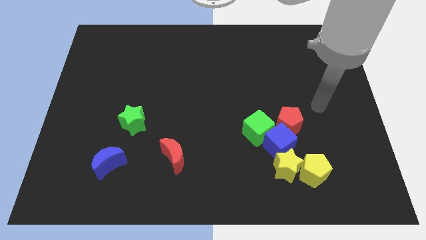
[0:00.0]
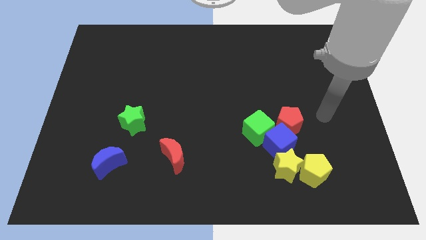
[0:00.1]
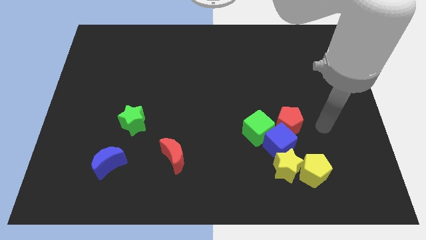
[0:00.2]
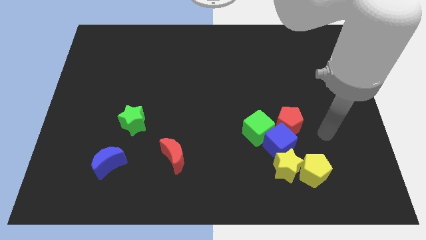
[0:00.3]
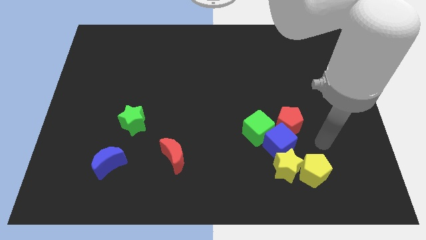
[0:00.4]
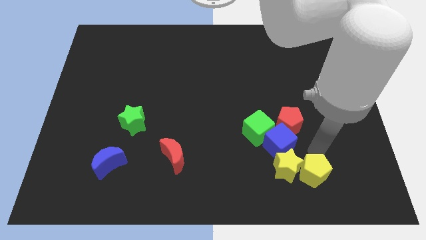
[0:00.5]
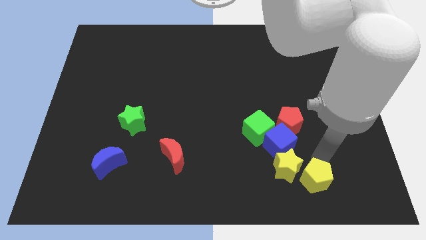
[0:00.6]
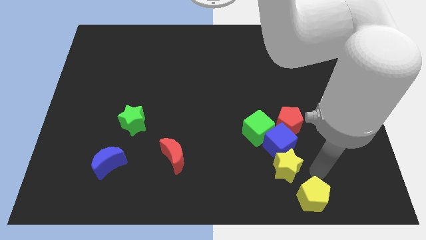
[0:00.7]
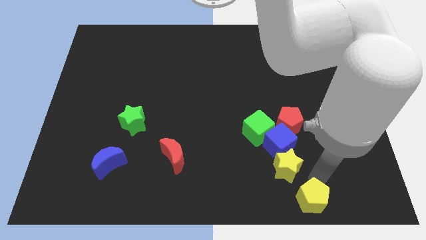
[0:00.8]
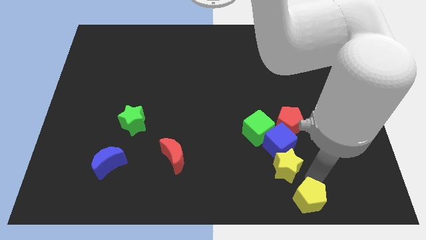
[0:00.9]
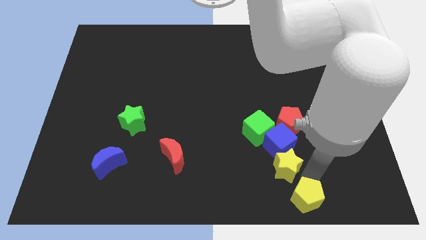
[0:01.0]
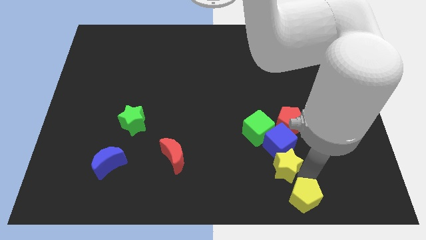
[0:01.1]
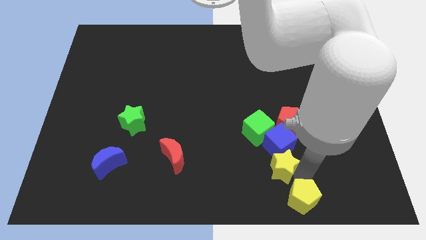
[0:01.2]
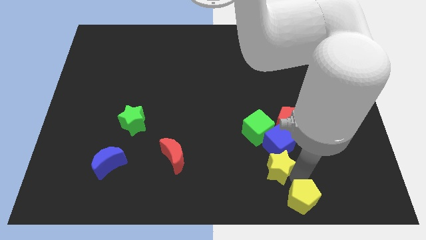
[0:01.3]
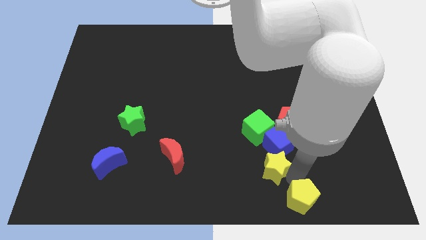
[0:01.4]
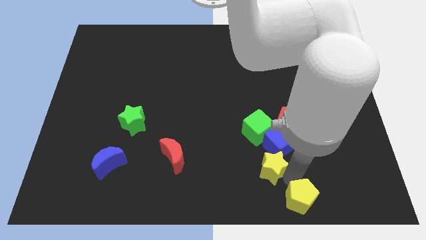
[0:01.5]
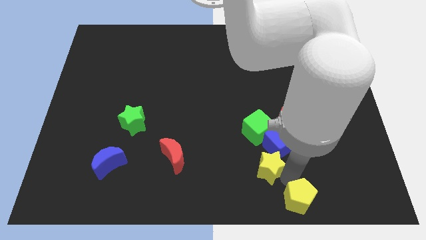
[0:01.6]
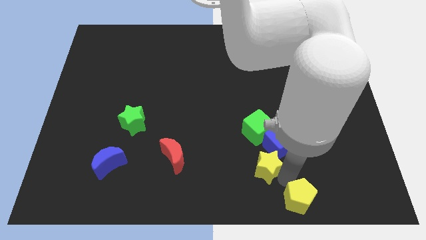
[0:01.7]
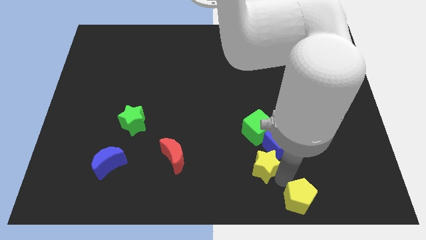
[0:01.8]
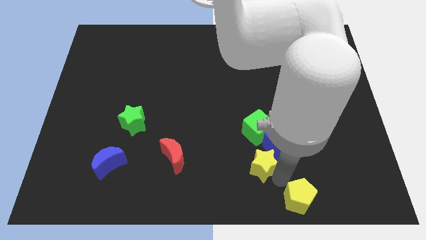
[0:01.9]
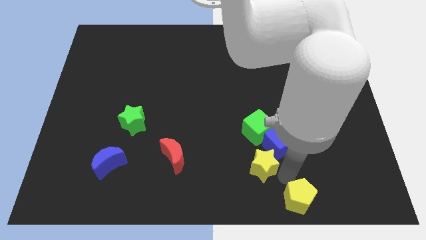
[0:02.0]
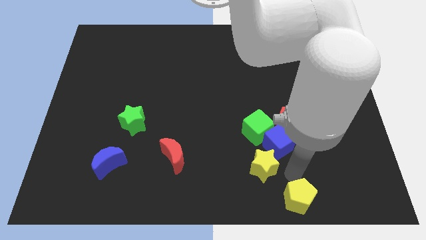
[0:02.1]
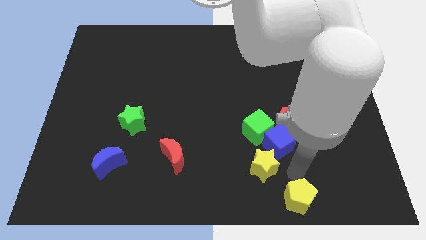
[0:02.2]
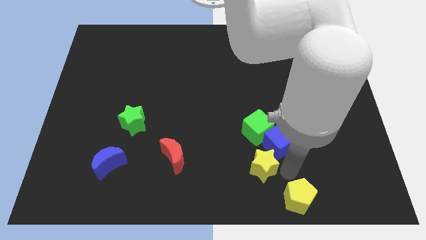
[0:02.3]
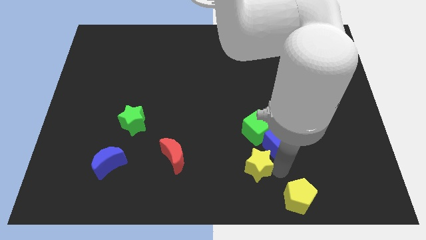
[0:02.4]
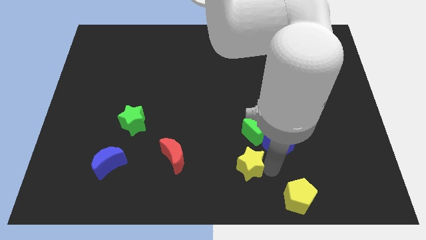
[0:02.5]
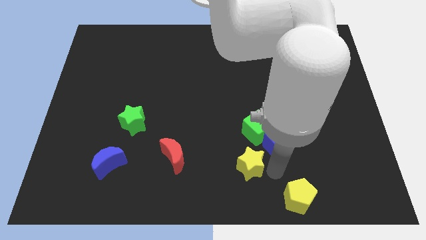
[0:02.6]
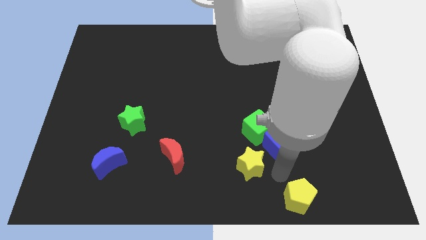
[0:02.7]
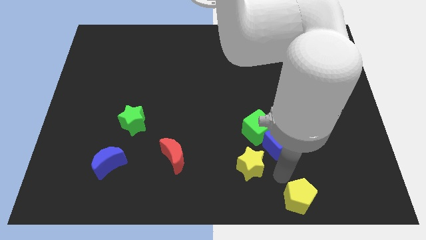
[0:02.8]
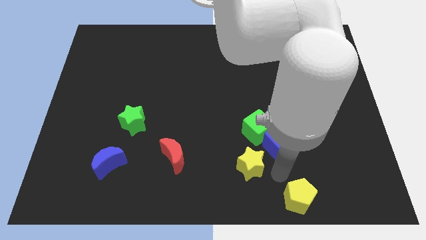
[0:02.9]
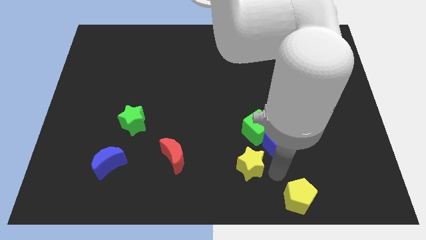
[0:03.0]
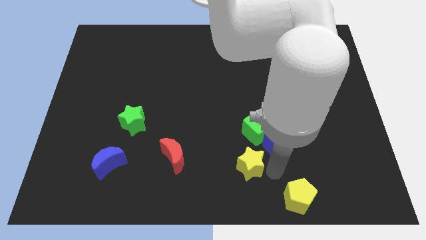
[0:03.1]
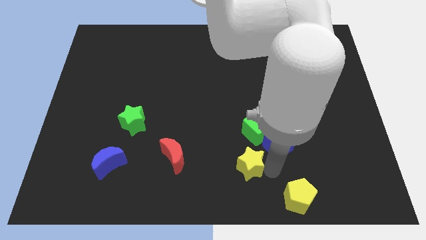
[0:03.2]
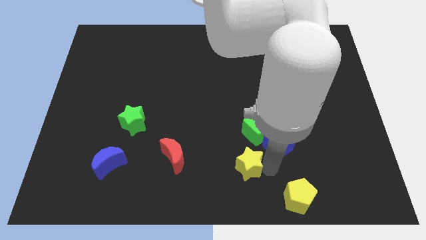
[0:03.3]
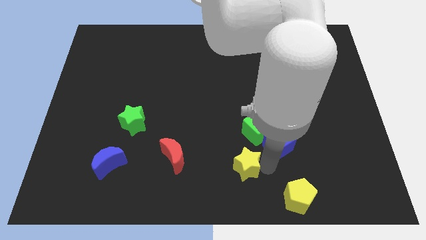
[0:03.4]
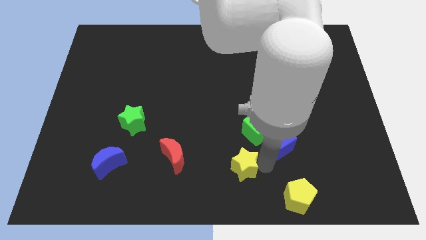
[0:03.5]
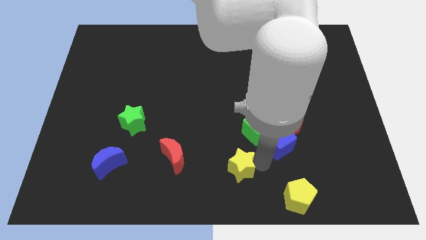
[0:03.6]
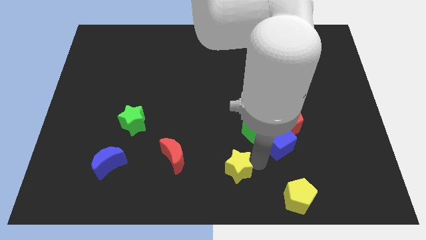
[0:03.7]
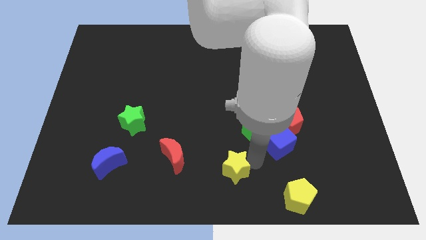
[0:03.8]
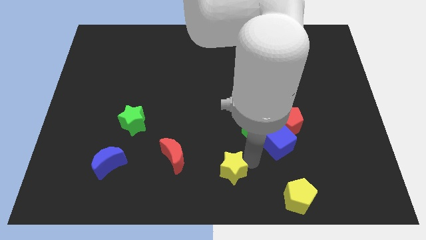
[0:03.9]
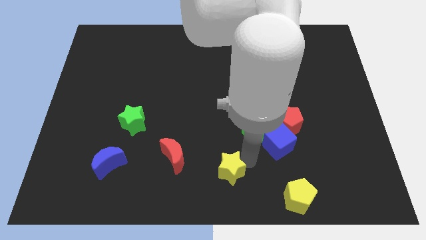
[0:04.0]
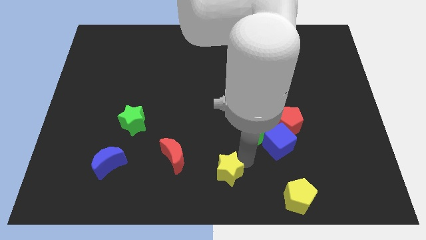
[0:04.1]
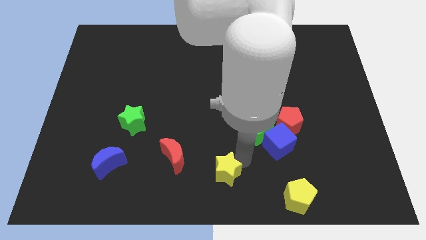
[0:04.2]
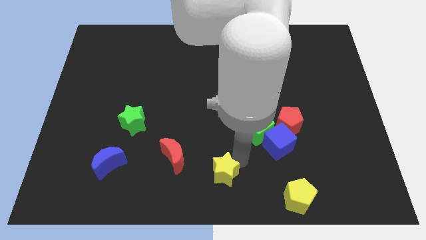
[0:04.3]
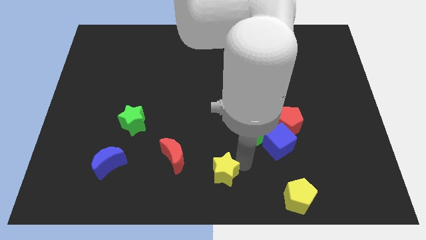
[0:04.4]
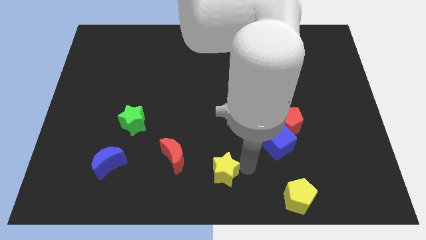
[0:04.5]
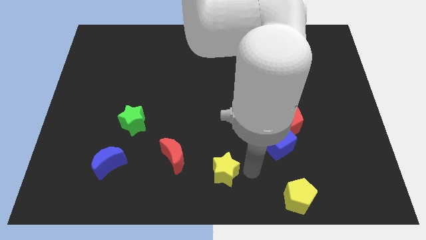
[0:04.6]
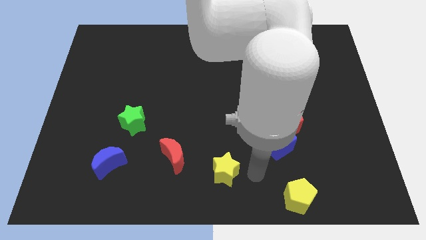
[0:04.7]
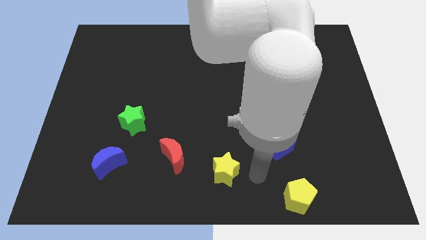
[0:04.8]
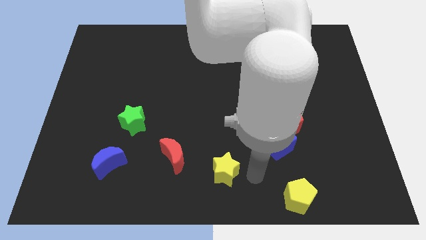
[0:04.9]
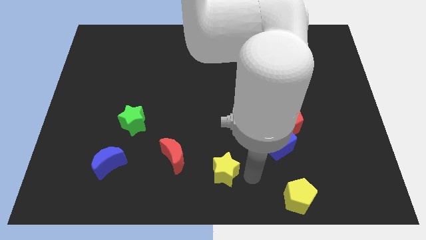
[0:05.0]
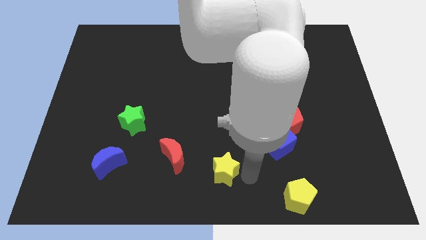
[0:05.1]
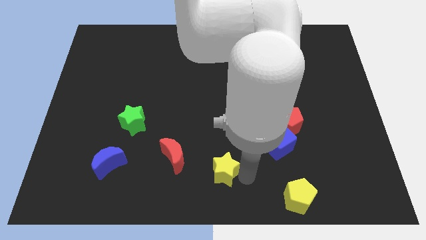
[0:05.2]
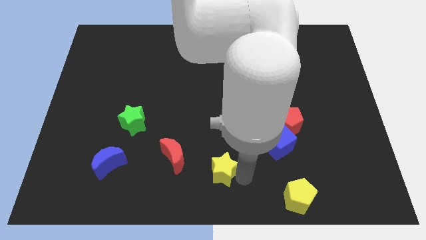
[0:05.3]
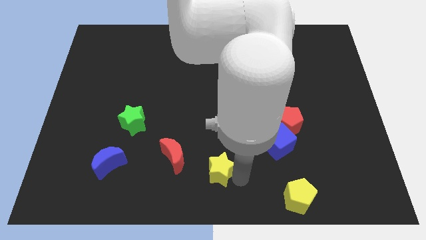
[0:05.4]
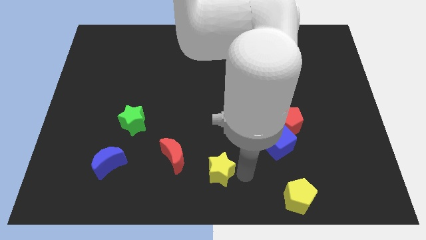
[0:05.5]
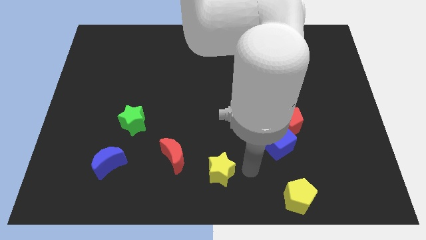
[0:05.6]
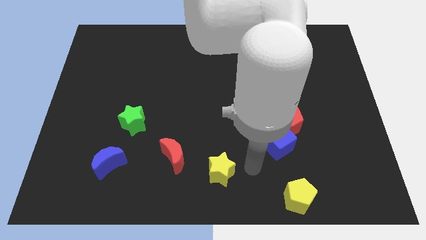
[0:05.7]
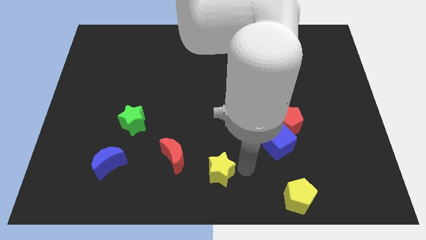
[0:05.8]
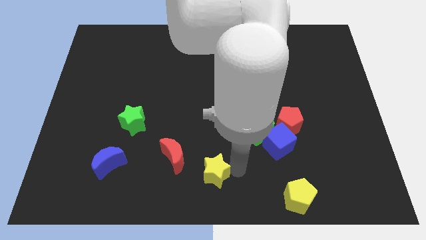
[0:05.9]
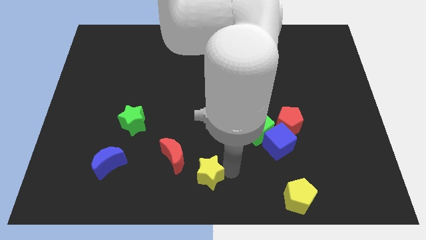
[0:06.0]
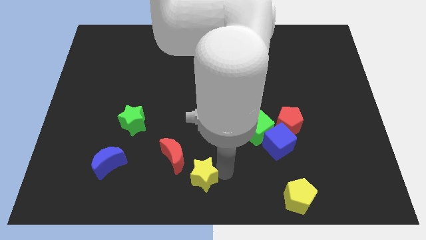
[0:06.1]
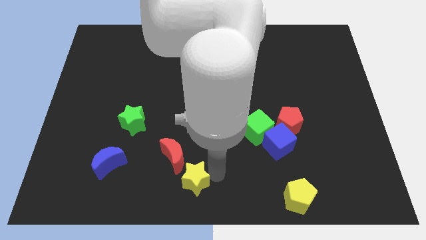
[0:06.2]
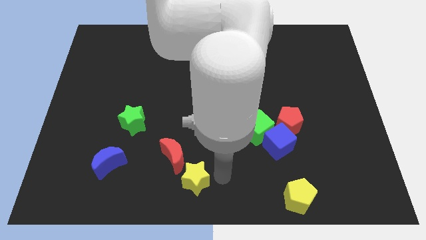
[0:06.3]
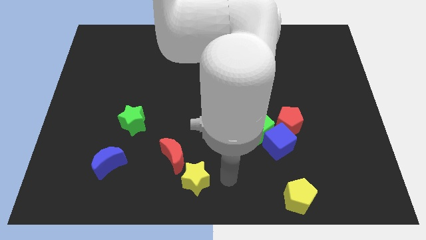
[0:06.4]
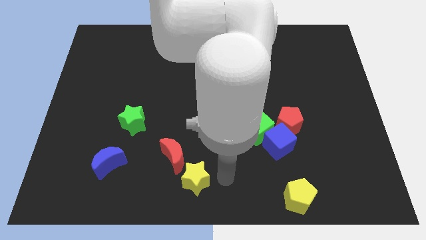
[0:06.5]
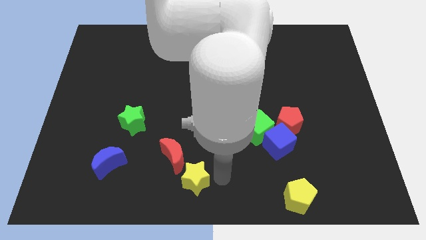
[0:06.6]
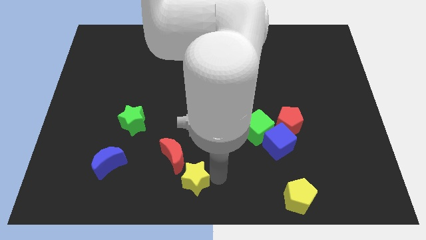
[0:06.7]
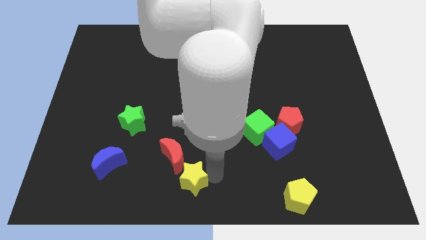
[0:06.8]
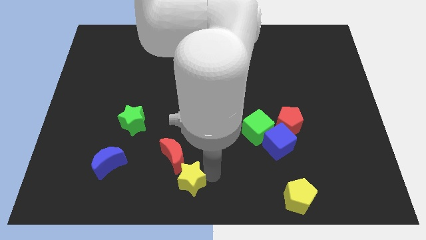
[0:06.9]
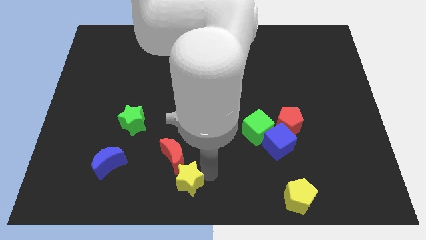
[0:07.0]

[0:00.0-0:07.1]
slide the yellow star to the left

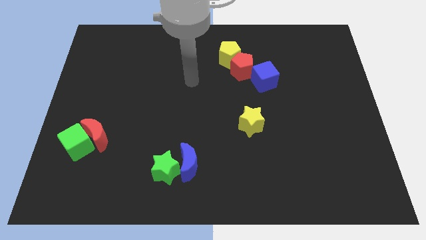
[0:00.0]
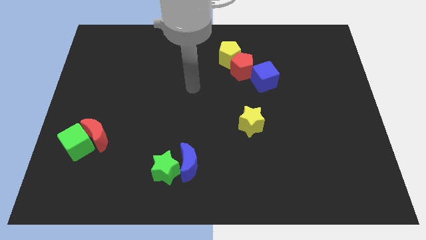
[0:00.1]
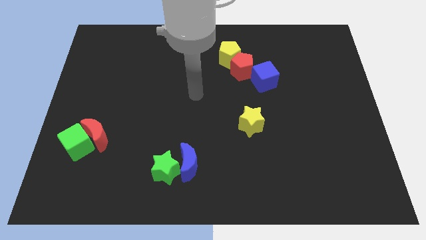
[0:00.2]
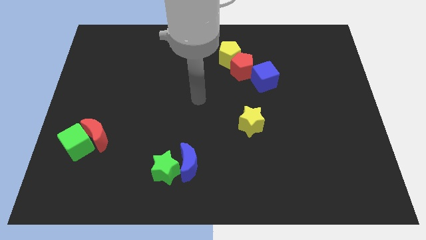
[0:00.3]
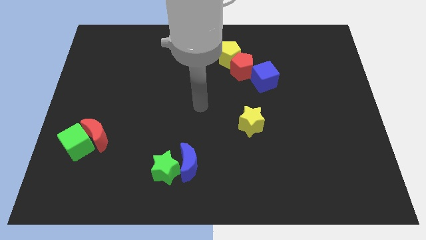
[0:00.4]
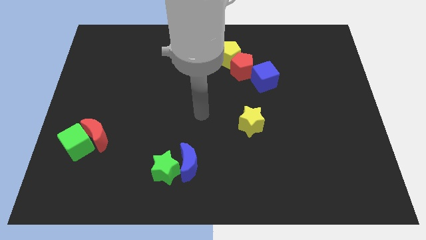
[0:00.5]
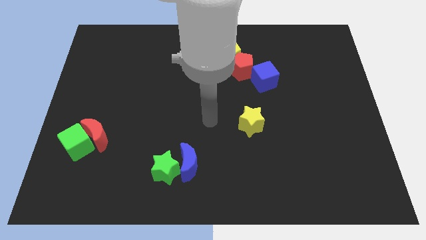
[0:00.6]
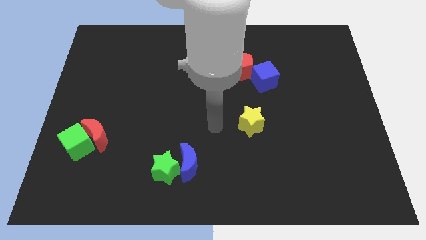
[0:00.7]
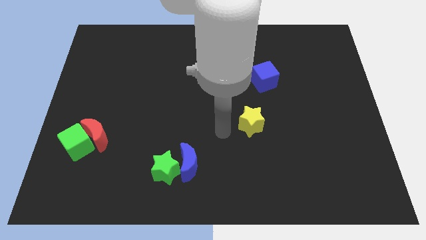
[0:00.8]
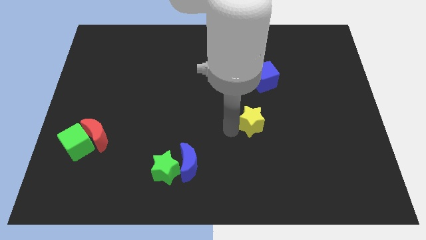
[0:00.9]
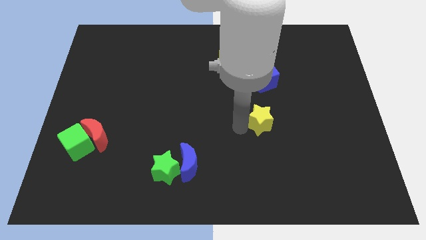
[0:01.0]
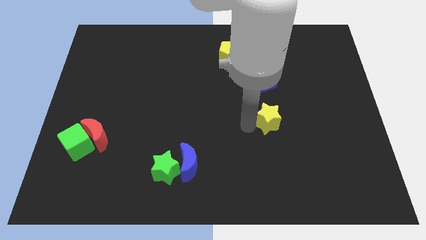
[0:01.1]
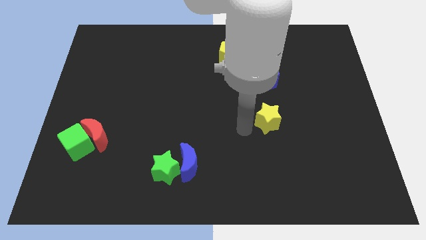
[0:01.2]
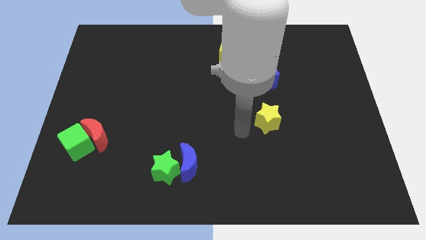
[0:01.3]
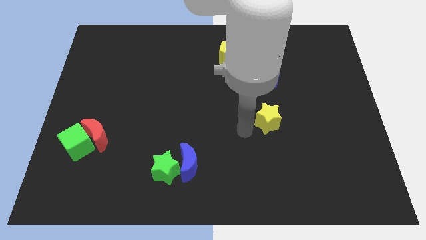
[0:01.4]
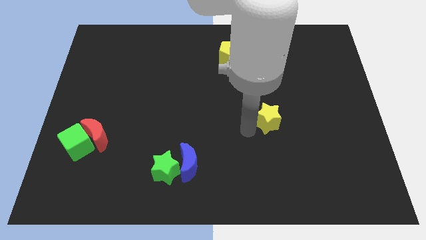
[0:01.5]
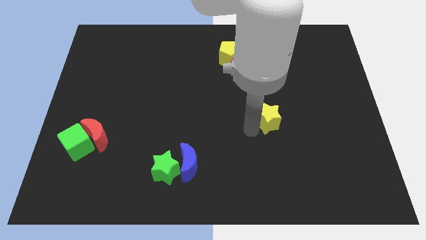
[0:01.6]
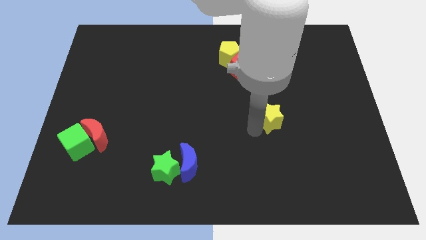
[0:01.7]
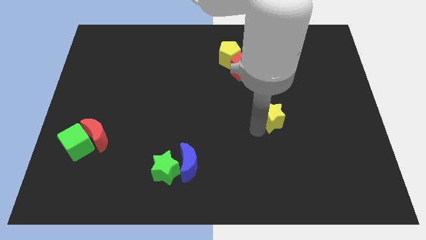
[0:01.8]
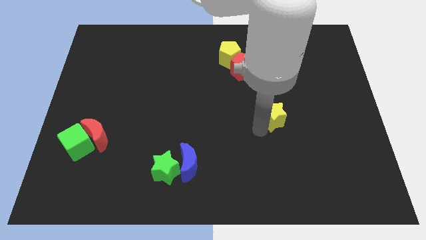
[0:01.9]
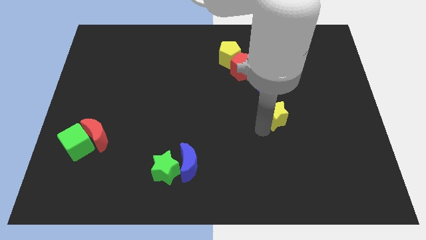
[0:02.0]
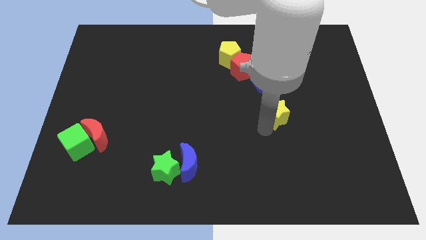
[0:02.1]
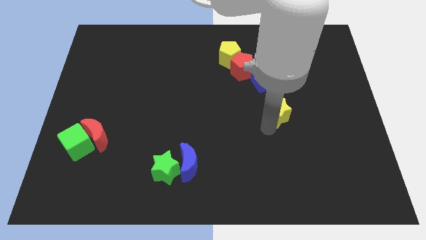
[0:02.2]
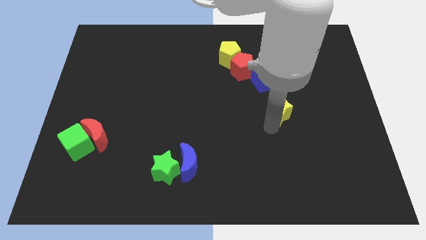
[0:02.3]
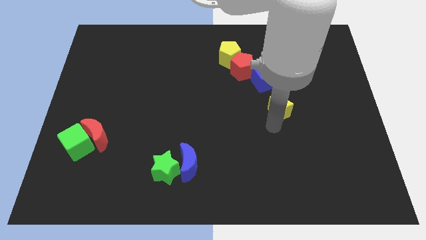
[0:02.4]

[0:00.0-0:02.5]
push the yellow star upwards and then to the right somewhat
